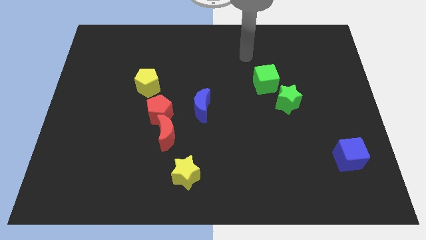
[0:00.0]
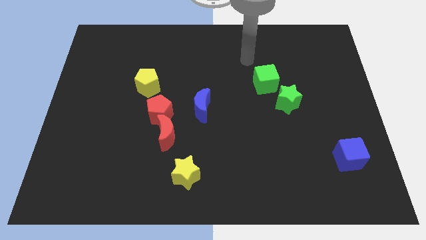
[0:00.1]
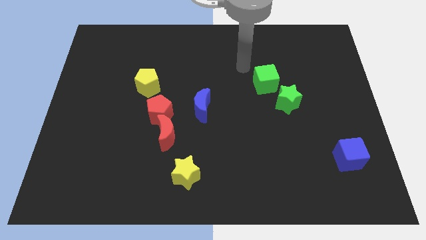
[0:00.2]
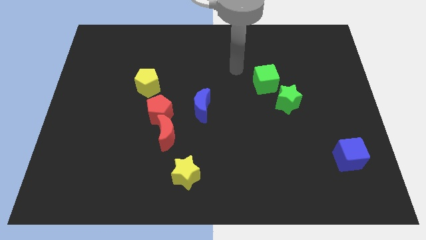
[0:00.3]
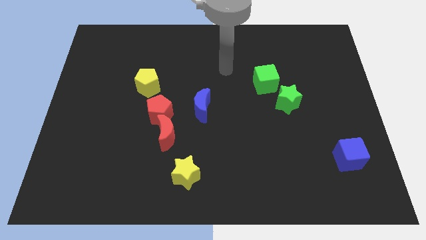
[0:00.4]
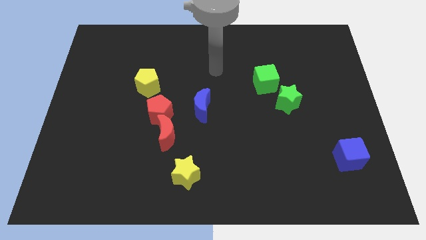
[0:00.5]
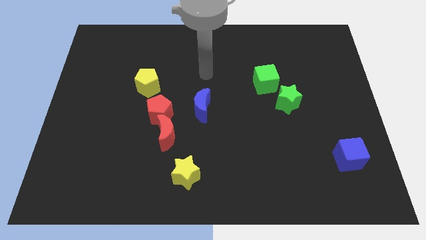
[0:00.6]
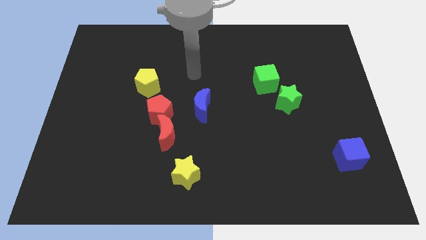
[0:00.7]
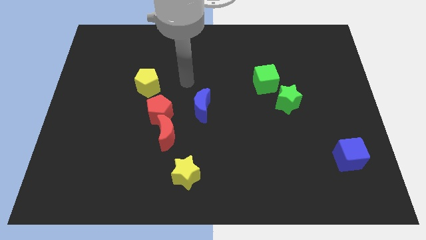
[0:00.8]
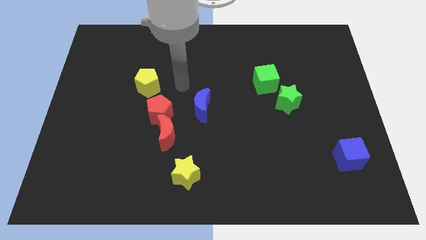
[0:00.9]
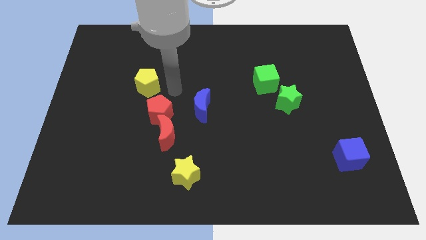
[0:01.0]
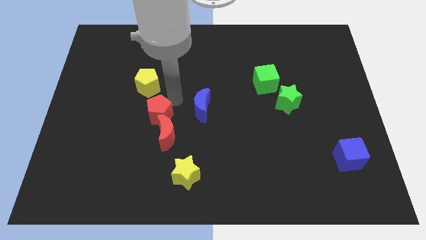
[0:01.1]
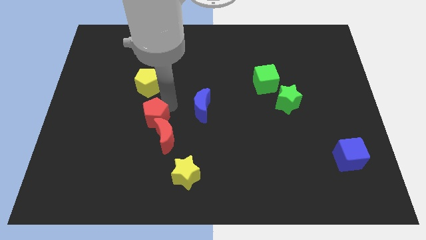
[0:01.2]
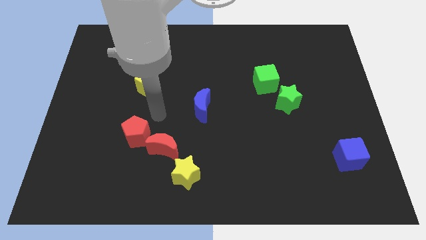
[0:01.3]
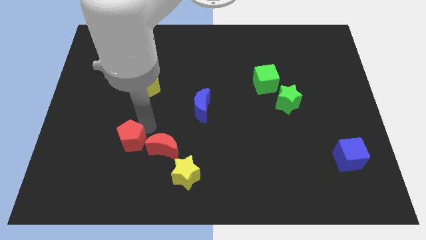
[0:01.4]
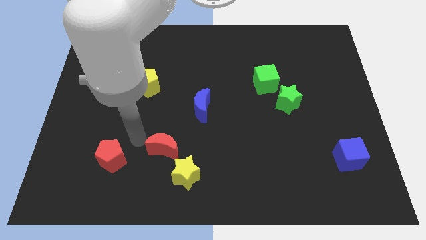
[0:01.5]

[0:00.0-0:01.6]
separate the red moon from the red pentagon

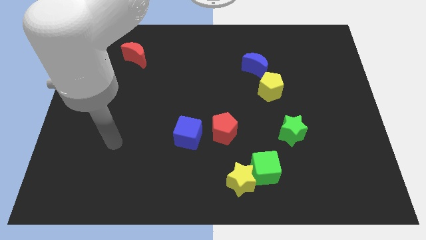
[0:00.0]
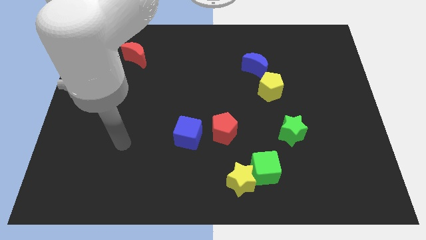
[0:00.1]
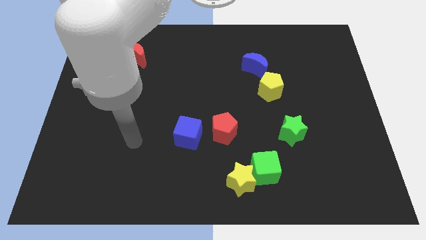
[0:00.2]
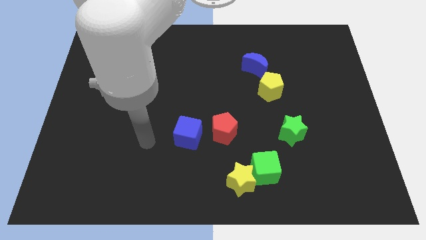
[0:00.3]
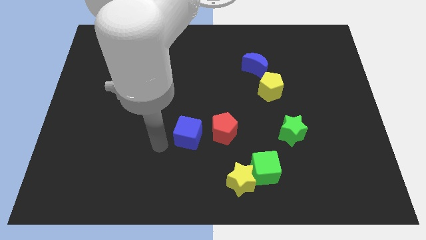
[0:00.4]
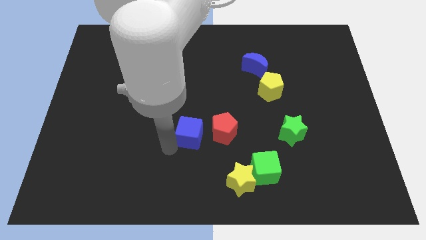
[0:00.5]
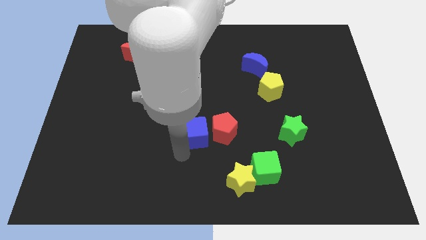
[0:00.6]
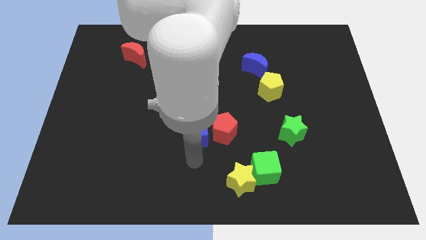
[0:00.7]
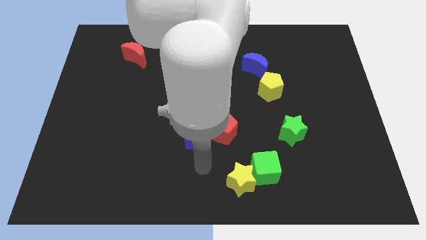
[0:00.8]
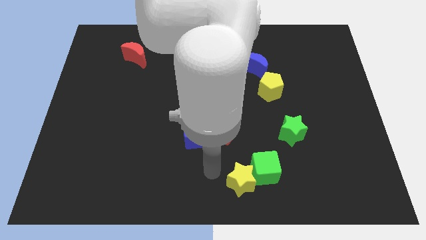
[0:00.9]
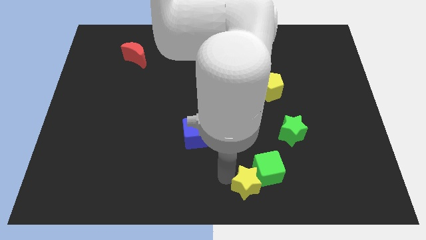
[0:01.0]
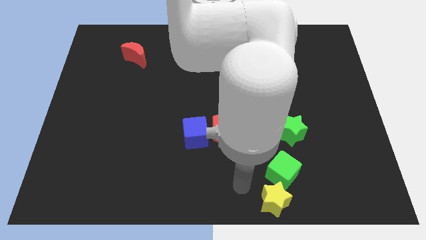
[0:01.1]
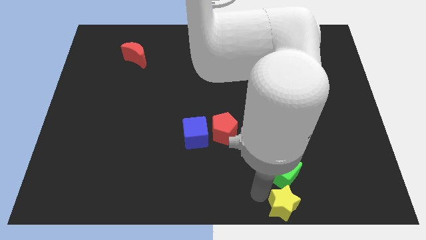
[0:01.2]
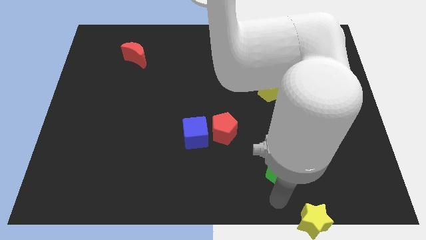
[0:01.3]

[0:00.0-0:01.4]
move the green cube away from the yellow star

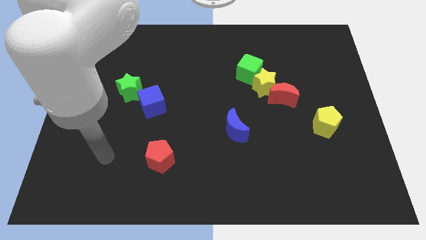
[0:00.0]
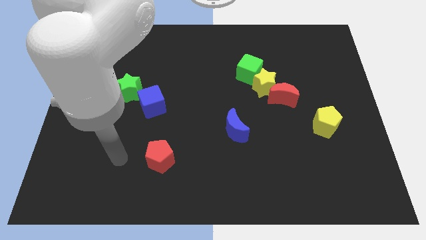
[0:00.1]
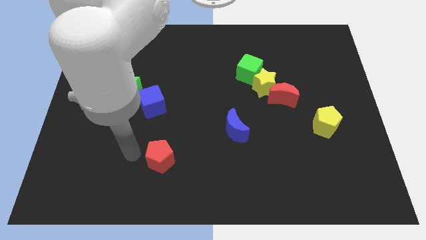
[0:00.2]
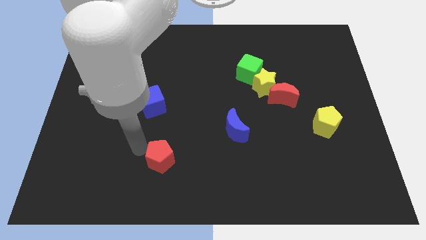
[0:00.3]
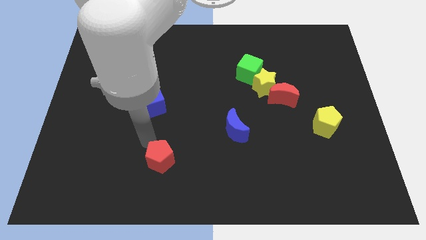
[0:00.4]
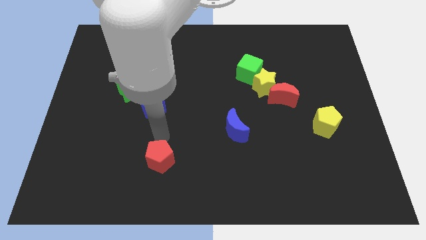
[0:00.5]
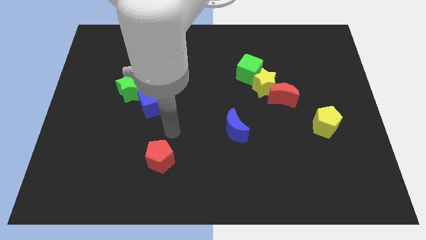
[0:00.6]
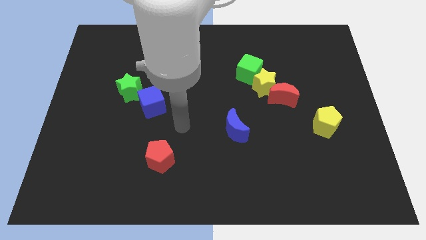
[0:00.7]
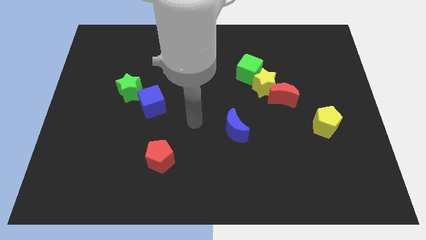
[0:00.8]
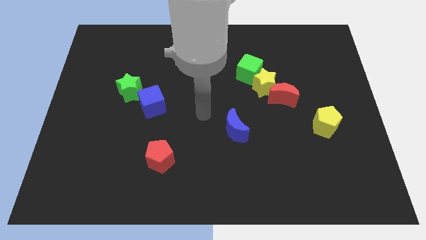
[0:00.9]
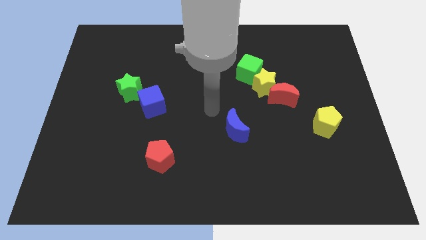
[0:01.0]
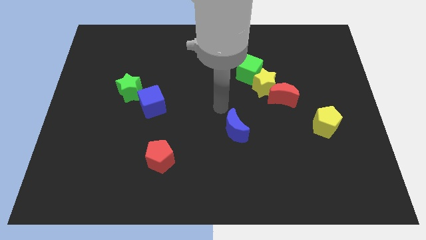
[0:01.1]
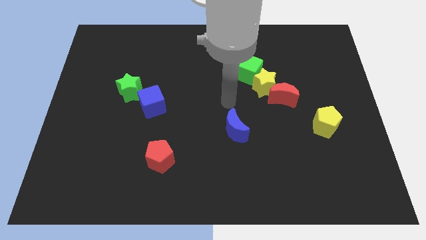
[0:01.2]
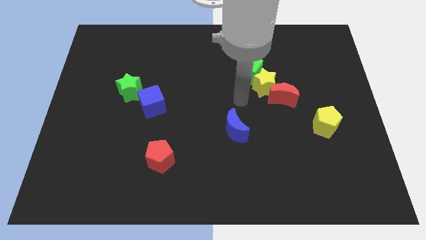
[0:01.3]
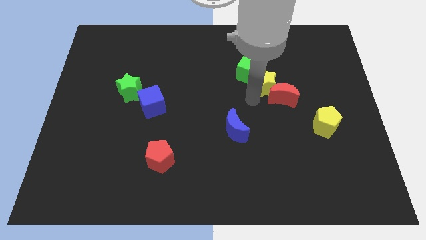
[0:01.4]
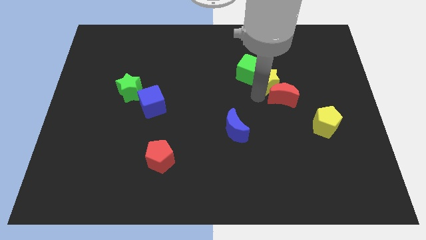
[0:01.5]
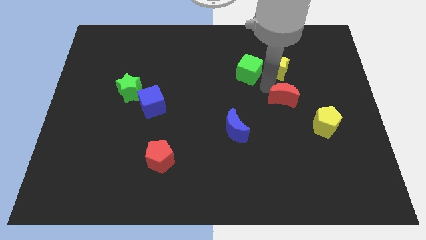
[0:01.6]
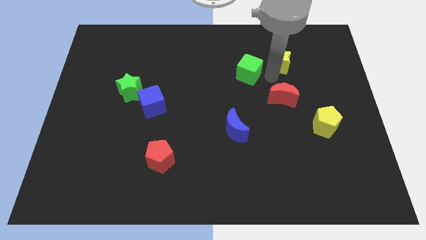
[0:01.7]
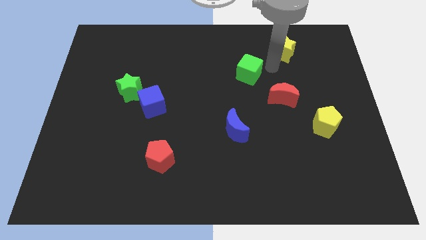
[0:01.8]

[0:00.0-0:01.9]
pull the green cube apart from the yellow star

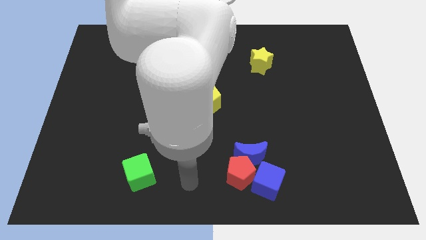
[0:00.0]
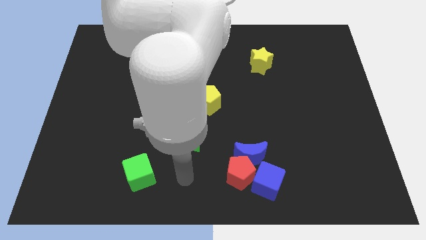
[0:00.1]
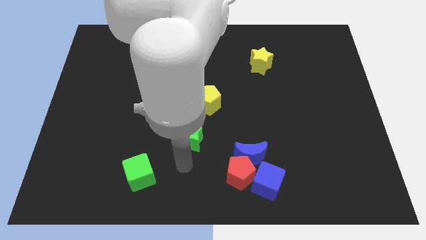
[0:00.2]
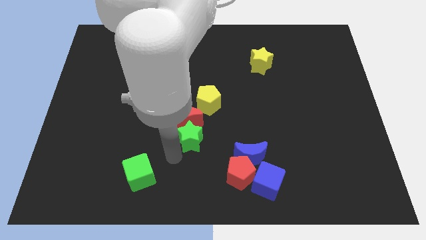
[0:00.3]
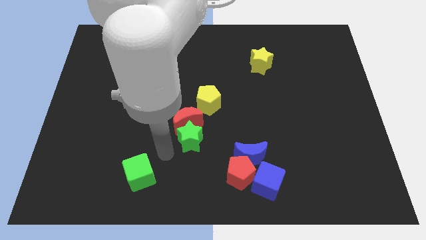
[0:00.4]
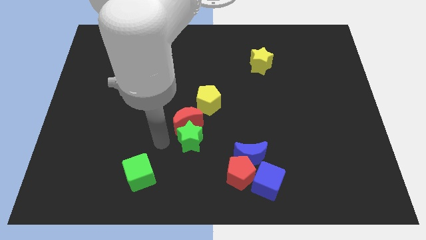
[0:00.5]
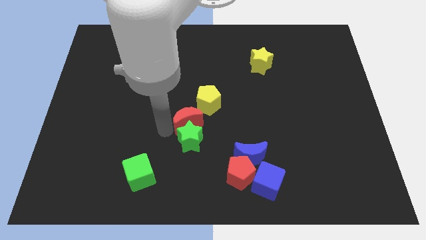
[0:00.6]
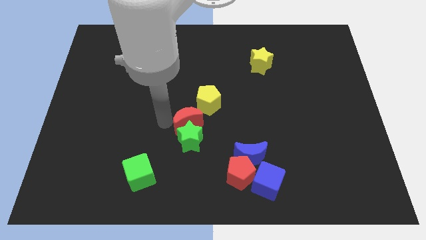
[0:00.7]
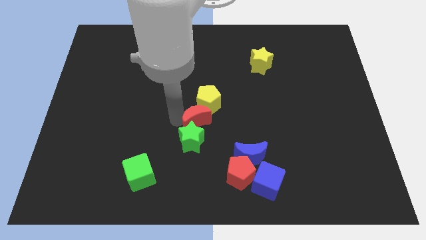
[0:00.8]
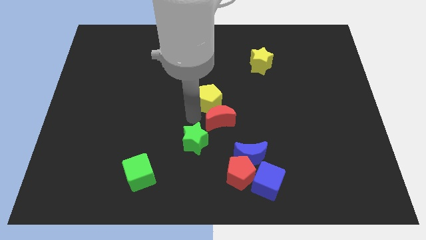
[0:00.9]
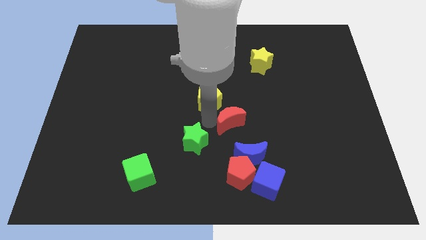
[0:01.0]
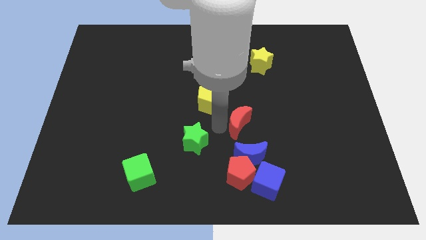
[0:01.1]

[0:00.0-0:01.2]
separate the green star from the red moon

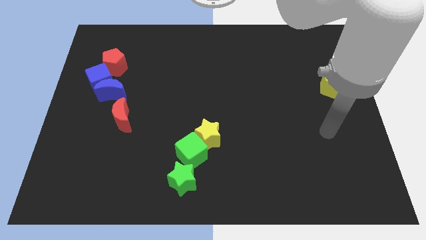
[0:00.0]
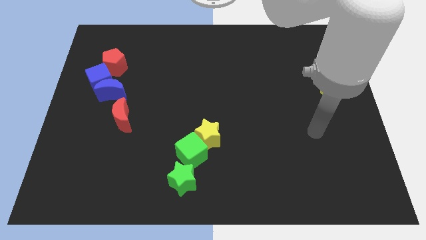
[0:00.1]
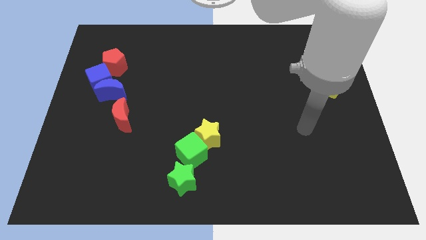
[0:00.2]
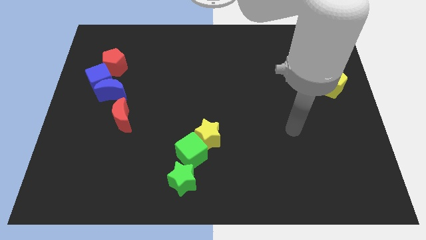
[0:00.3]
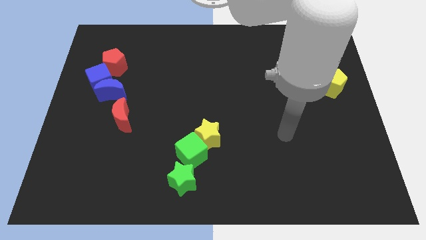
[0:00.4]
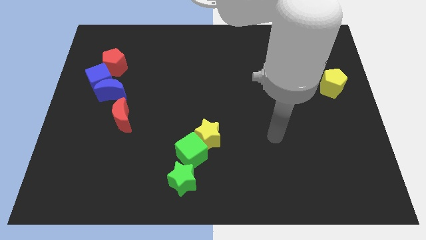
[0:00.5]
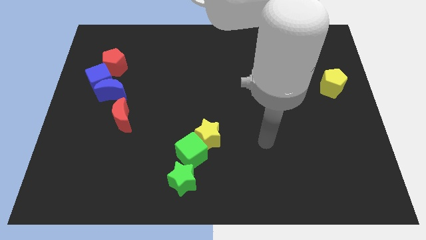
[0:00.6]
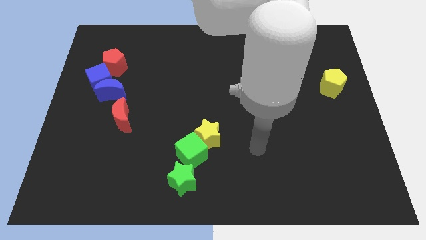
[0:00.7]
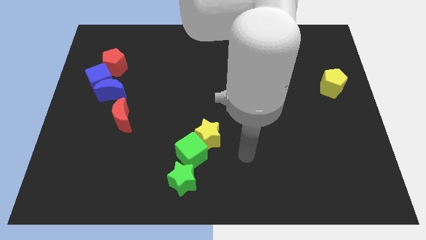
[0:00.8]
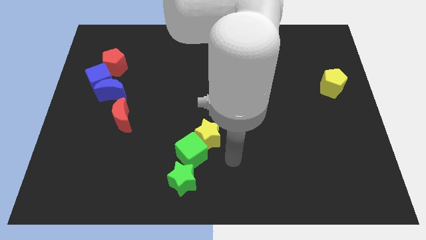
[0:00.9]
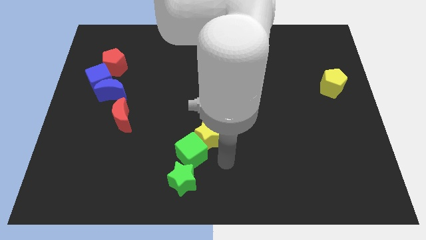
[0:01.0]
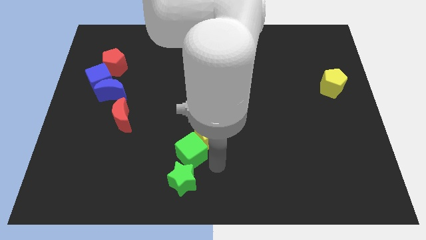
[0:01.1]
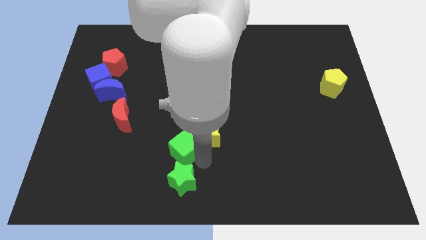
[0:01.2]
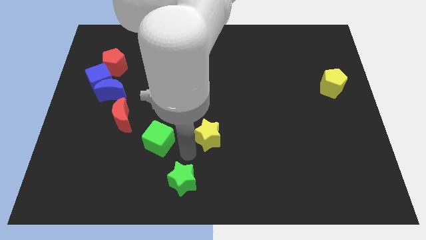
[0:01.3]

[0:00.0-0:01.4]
move the yellow star away from the green cube

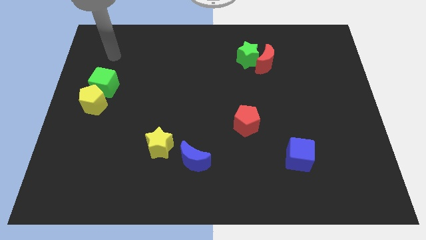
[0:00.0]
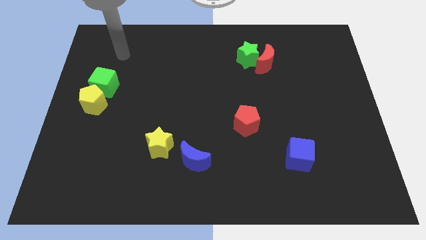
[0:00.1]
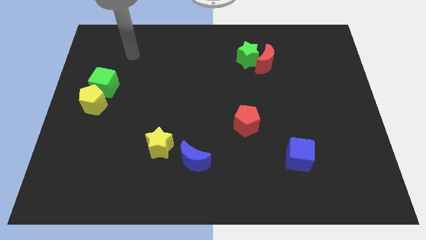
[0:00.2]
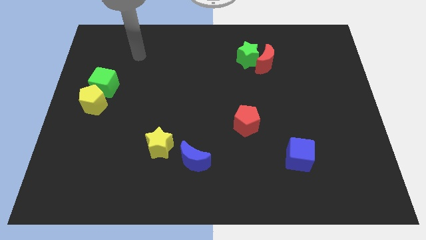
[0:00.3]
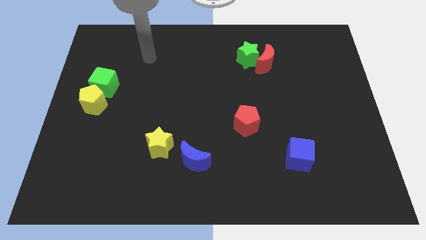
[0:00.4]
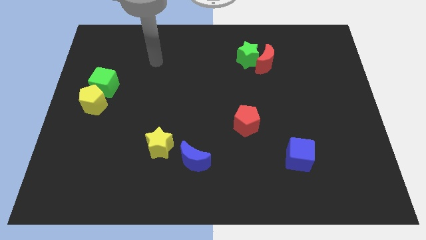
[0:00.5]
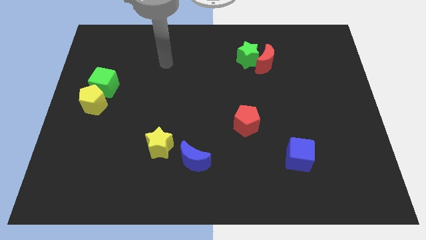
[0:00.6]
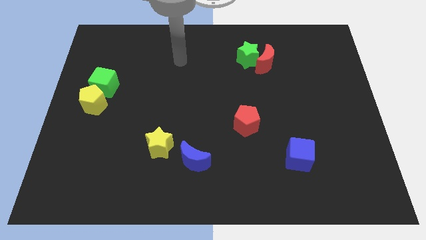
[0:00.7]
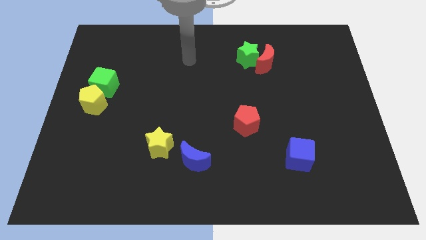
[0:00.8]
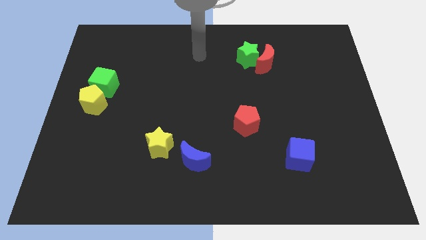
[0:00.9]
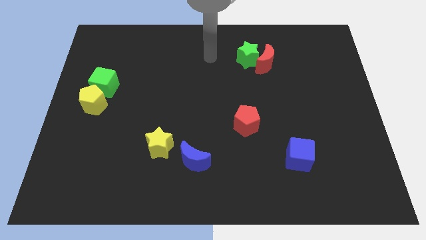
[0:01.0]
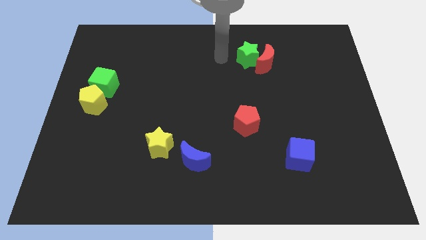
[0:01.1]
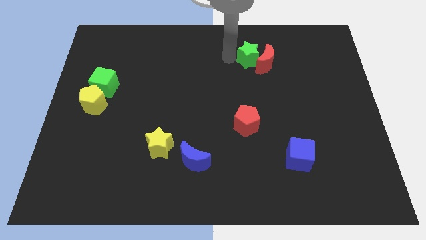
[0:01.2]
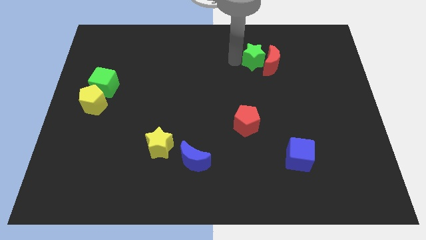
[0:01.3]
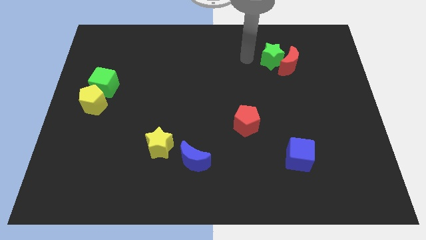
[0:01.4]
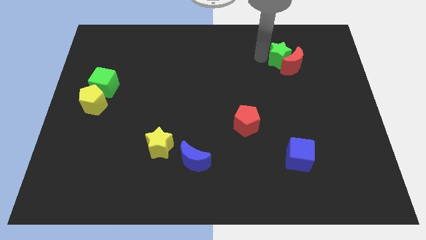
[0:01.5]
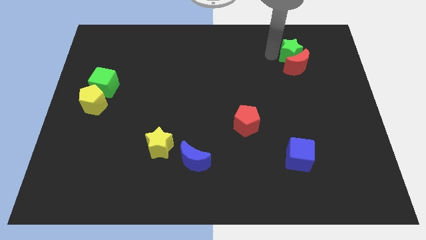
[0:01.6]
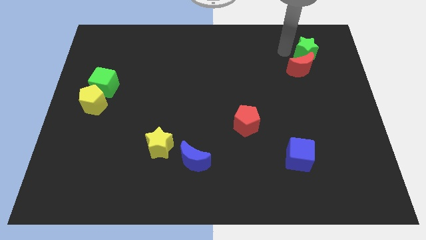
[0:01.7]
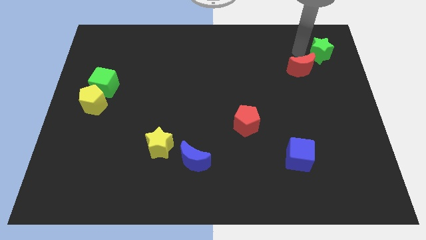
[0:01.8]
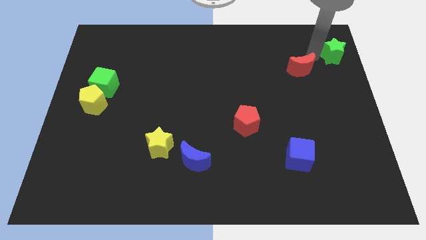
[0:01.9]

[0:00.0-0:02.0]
move the red moon away from the green star

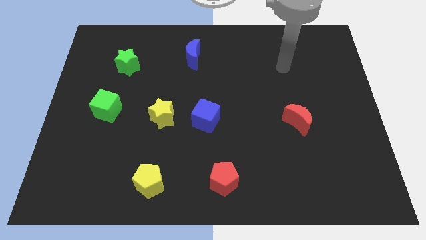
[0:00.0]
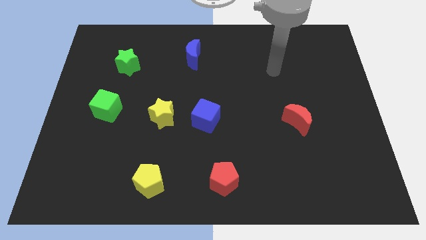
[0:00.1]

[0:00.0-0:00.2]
pull the blue cube apart from the yellow star
